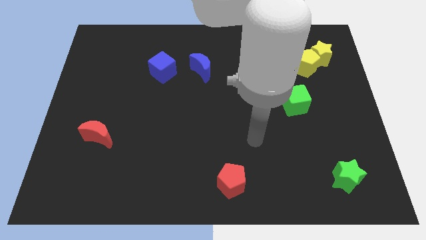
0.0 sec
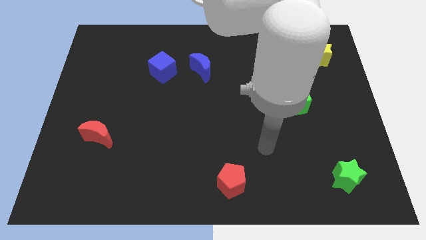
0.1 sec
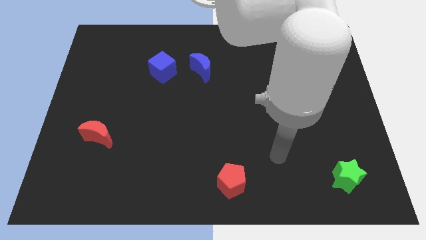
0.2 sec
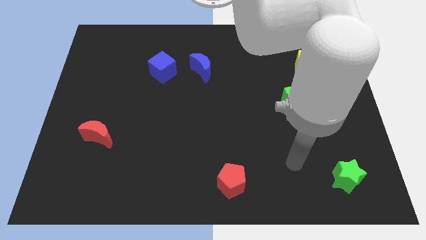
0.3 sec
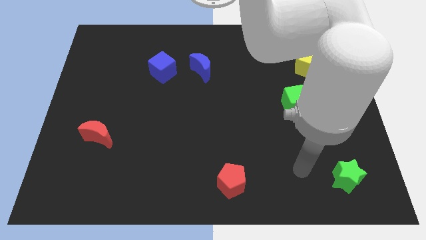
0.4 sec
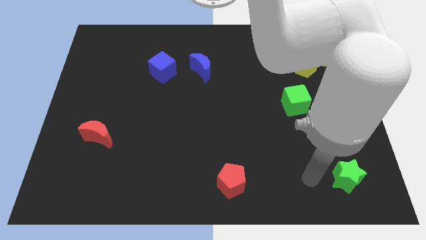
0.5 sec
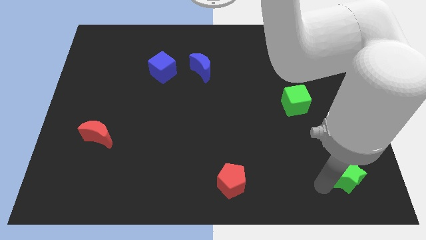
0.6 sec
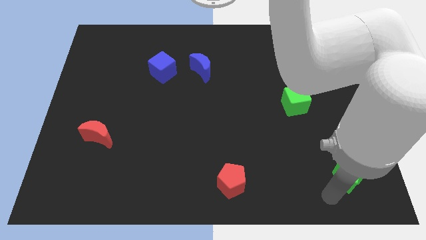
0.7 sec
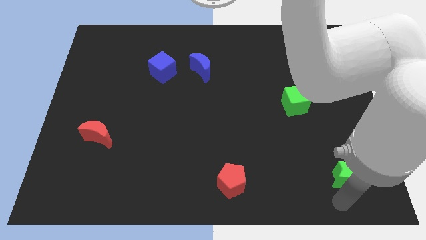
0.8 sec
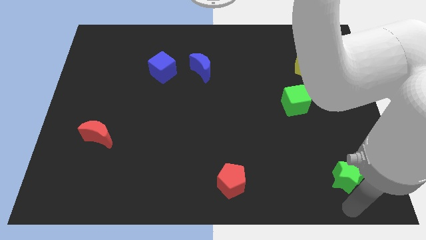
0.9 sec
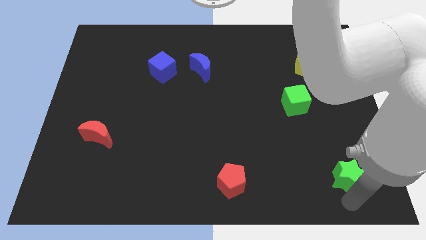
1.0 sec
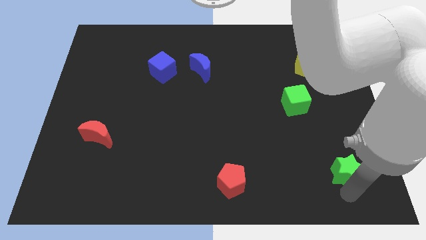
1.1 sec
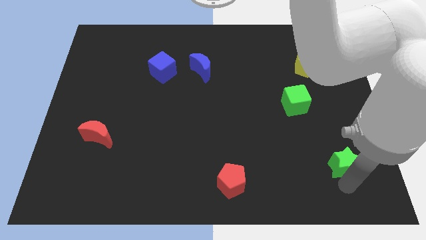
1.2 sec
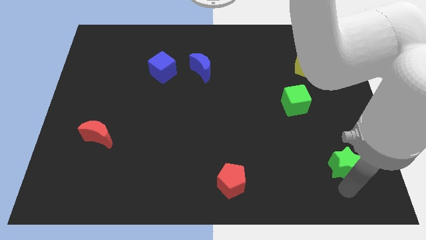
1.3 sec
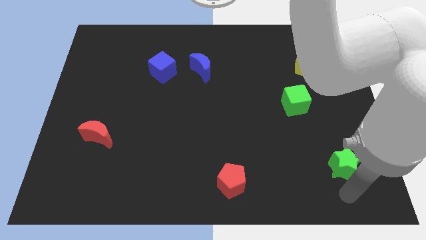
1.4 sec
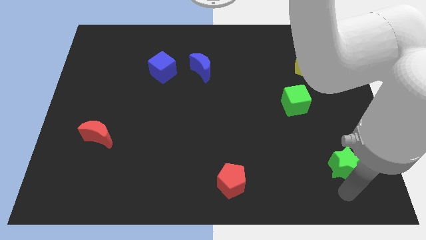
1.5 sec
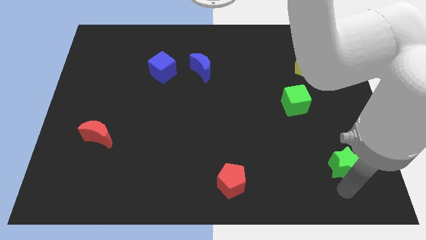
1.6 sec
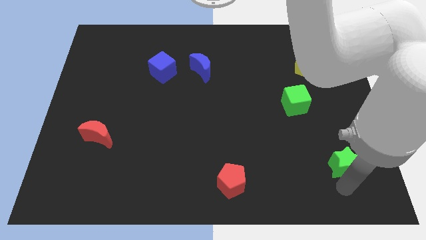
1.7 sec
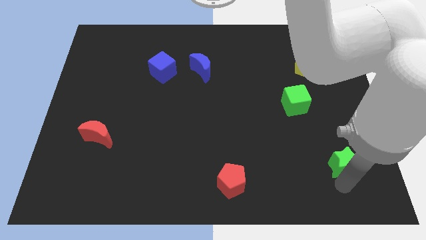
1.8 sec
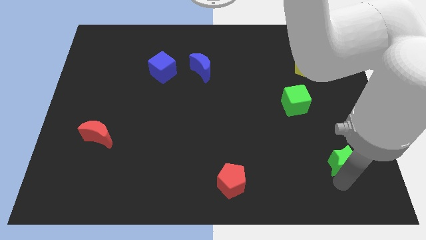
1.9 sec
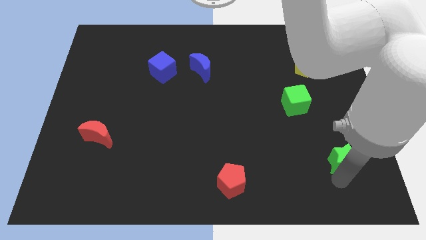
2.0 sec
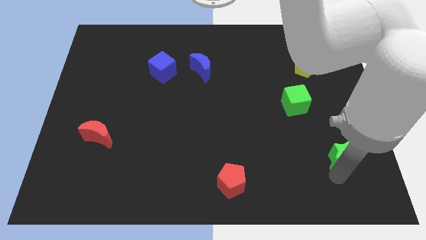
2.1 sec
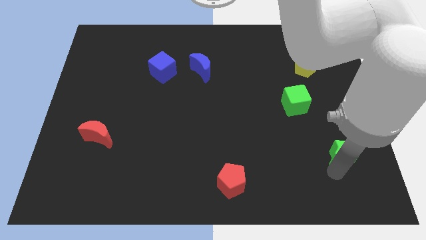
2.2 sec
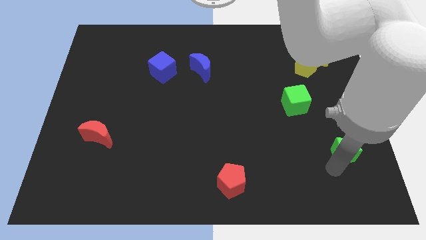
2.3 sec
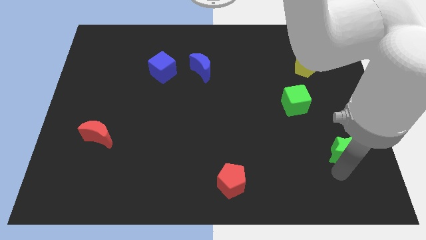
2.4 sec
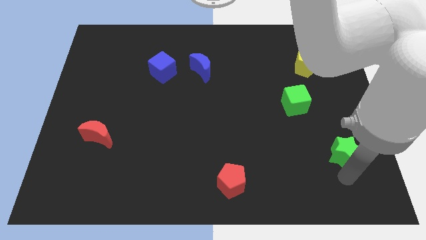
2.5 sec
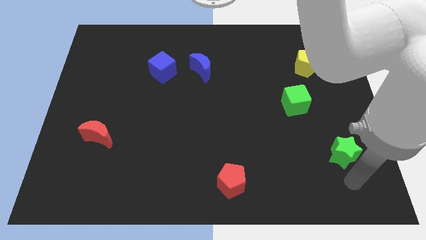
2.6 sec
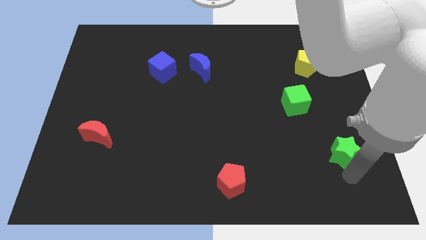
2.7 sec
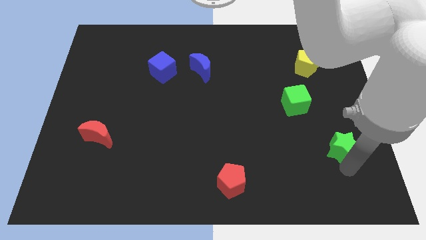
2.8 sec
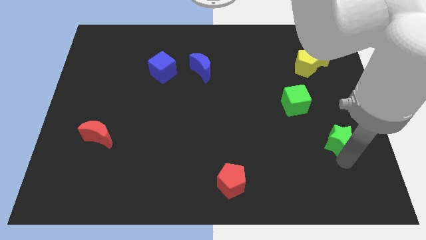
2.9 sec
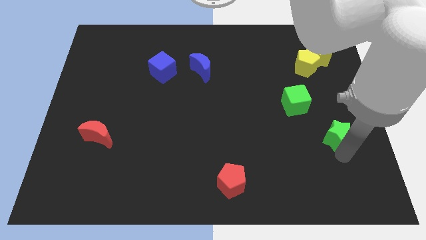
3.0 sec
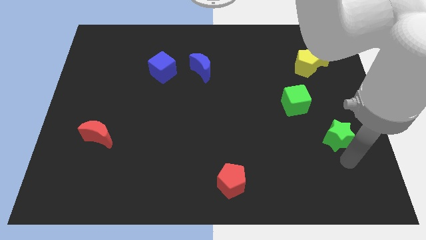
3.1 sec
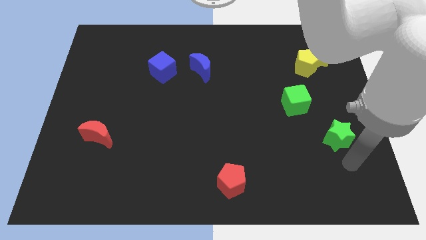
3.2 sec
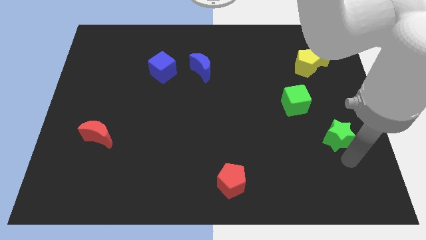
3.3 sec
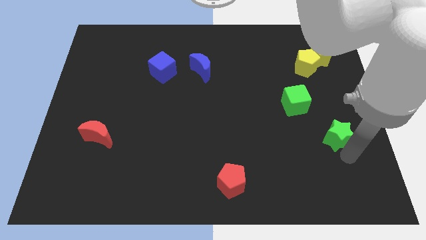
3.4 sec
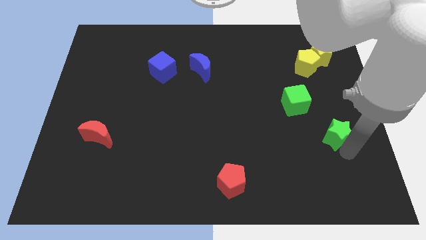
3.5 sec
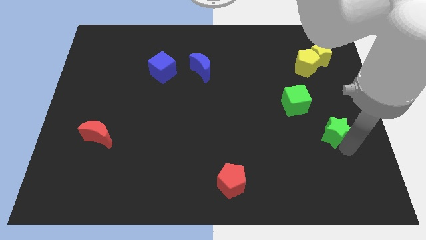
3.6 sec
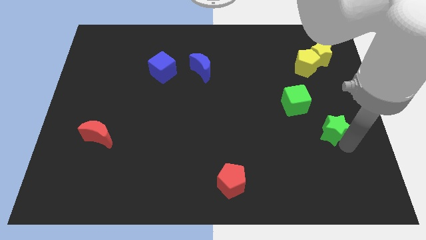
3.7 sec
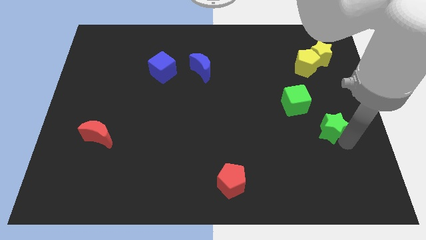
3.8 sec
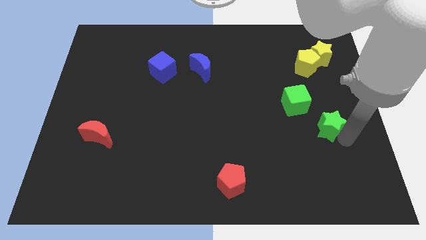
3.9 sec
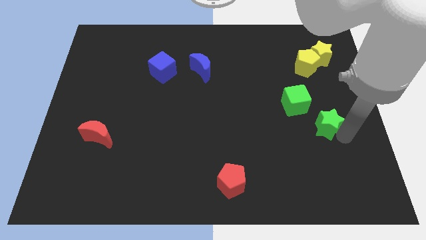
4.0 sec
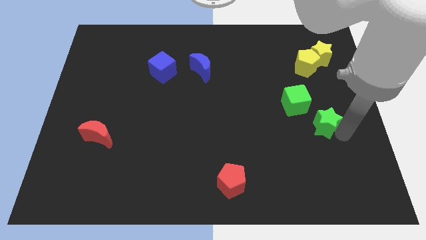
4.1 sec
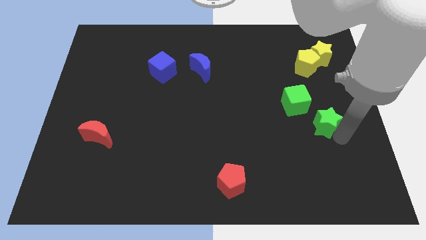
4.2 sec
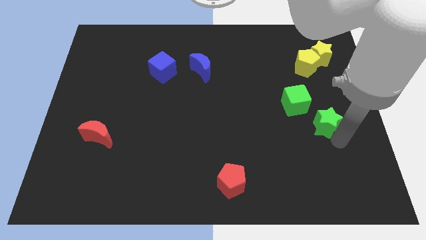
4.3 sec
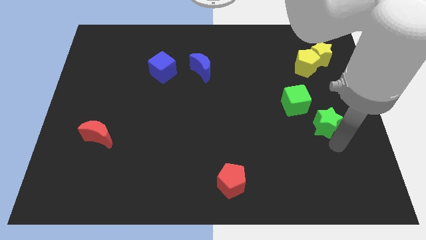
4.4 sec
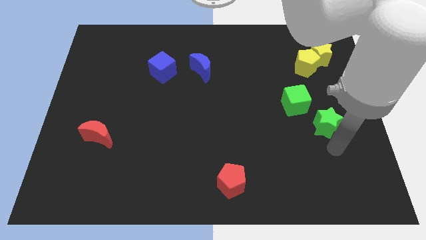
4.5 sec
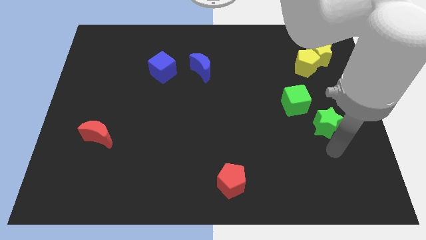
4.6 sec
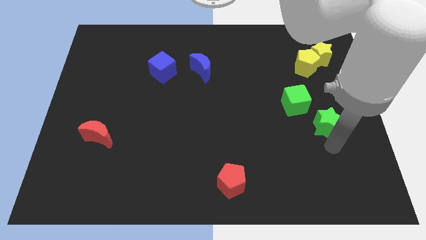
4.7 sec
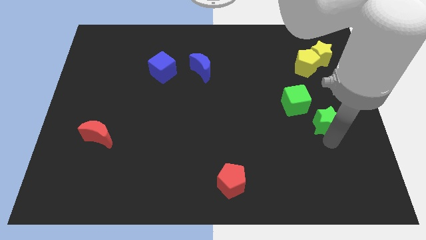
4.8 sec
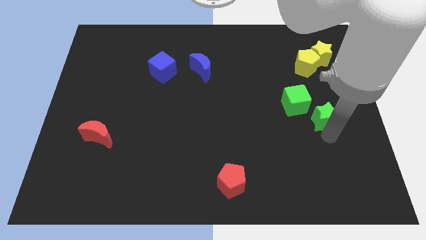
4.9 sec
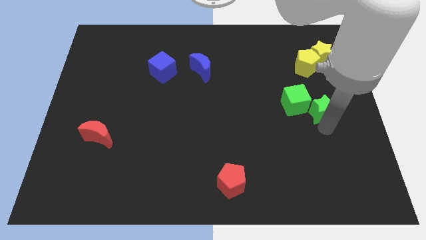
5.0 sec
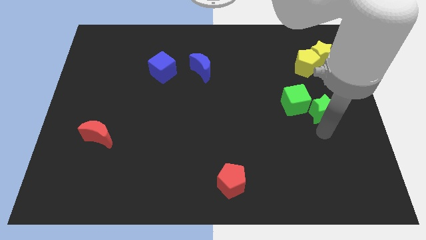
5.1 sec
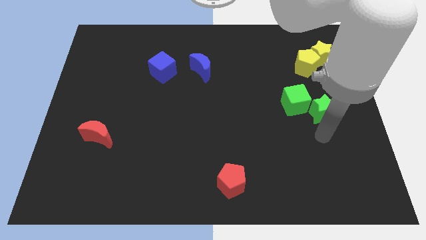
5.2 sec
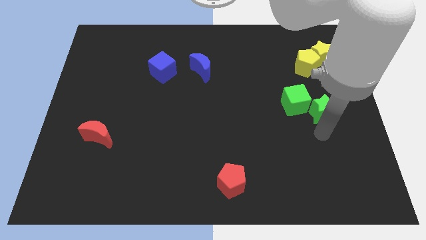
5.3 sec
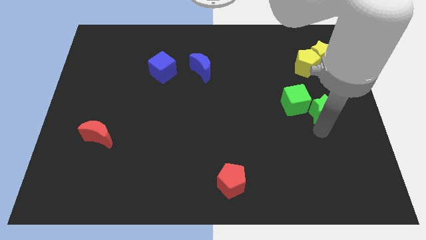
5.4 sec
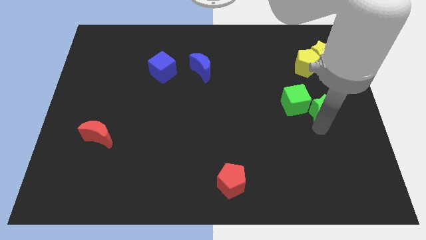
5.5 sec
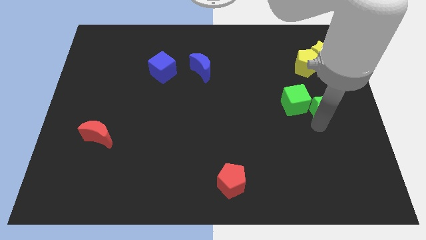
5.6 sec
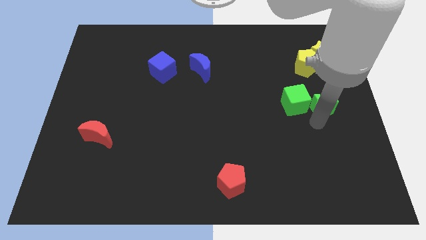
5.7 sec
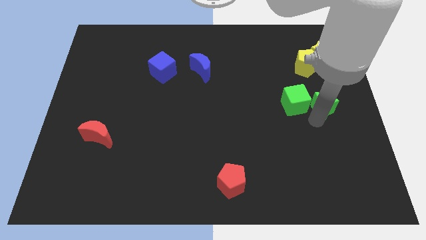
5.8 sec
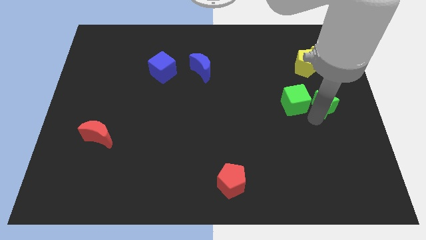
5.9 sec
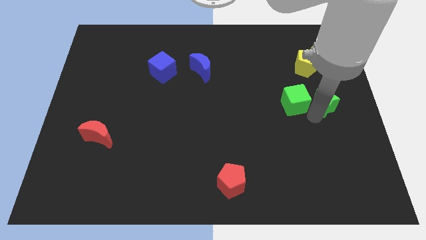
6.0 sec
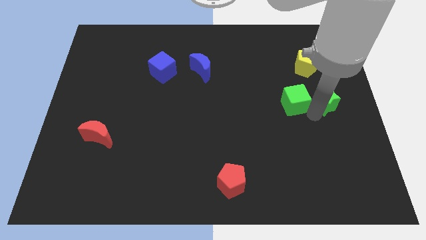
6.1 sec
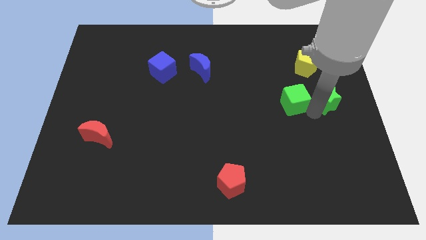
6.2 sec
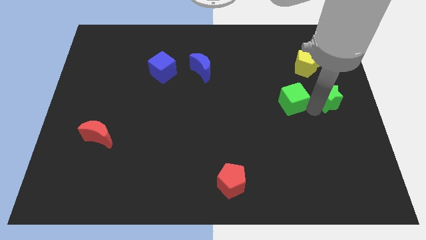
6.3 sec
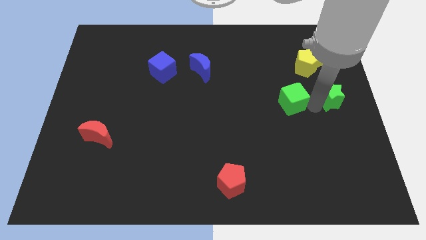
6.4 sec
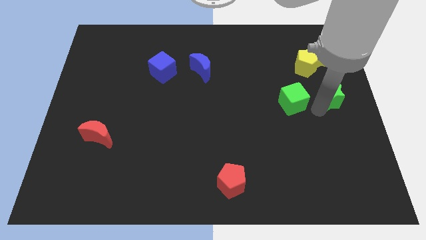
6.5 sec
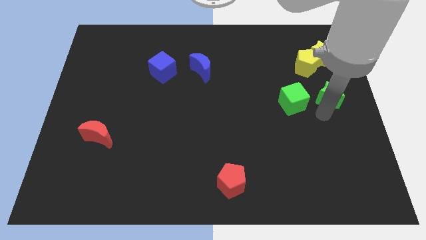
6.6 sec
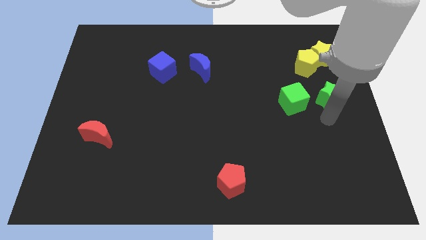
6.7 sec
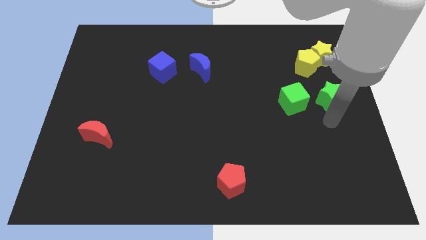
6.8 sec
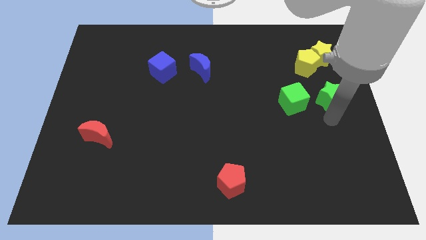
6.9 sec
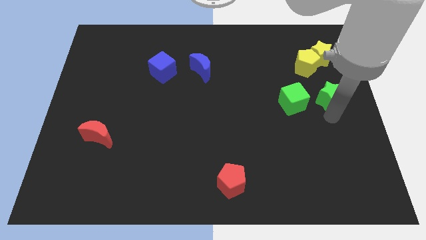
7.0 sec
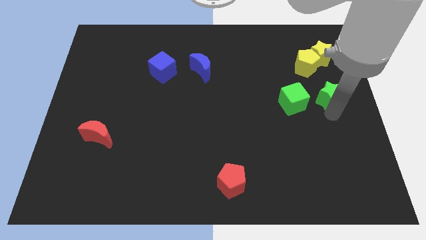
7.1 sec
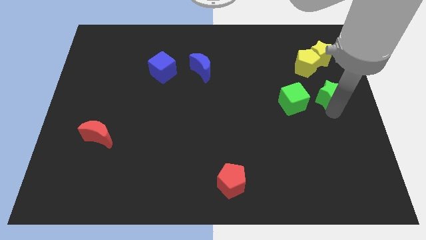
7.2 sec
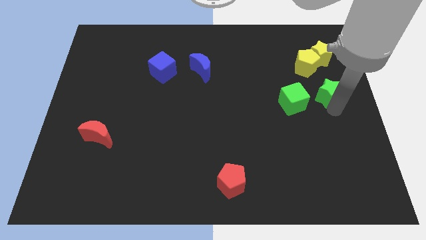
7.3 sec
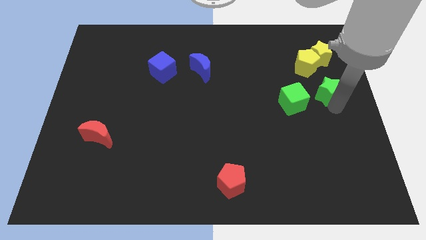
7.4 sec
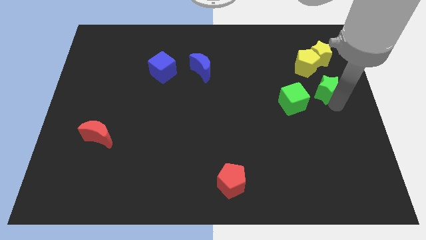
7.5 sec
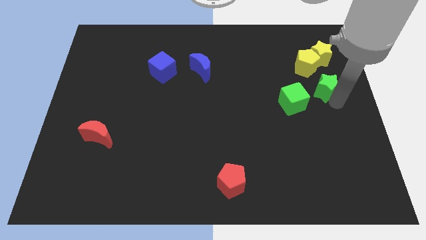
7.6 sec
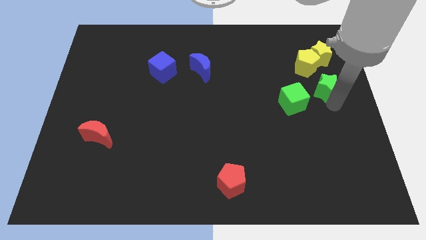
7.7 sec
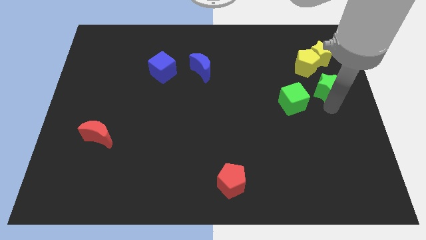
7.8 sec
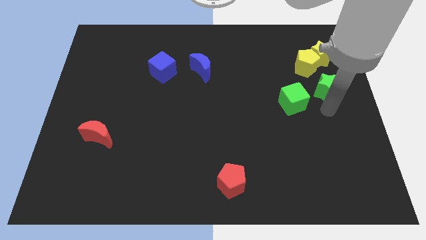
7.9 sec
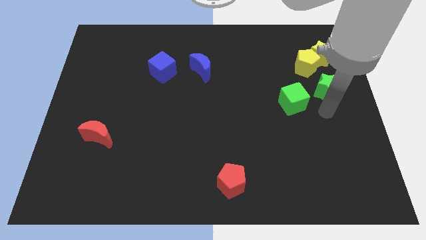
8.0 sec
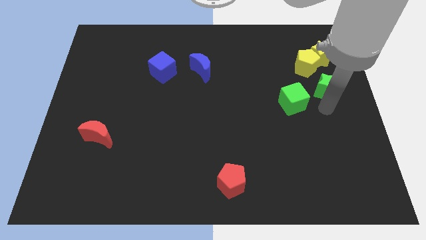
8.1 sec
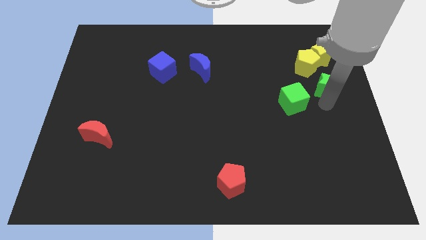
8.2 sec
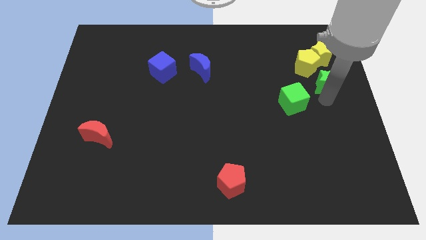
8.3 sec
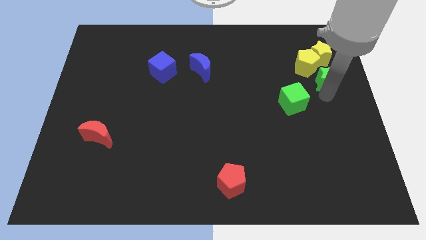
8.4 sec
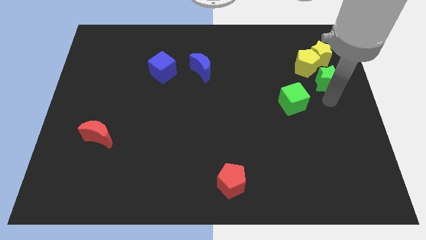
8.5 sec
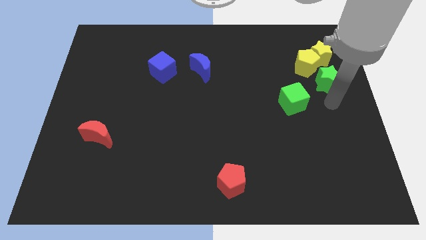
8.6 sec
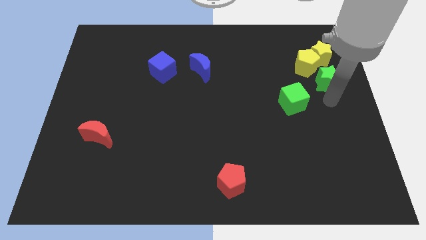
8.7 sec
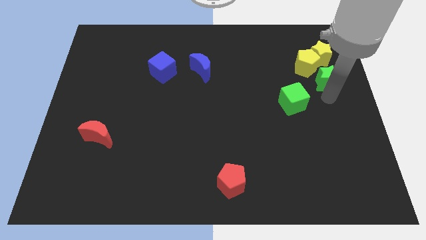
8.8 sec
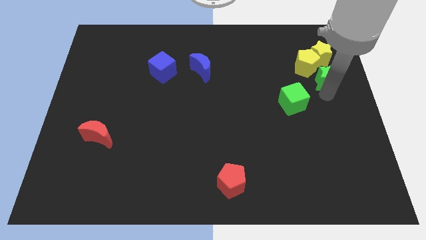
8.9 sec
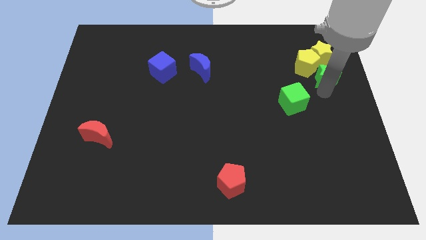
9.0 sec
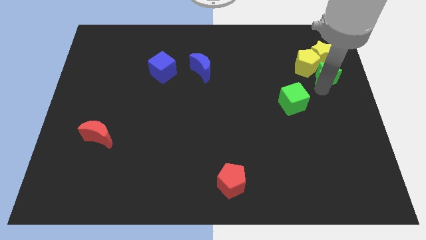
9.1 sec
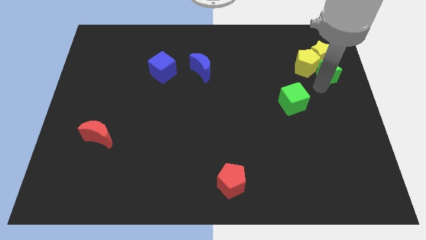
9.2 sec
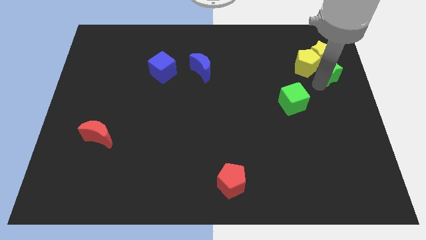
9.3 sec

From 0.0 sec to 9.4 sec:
push the green star close to the yellow star
